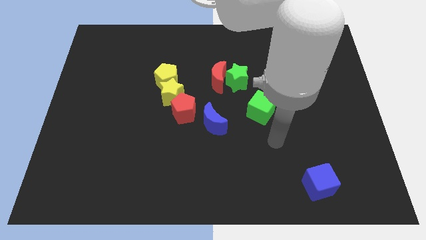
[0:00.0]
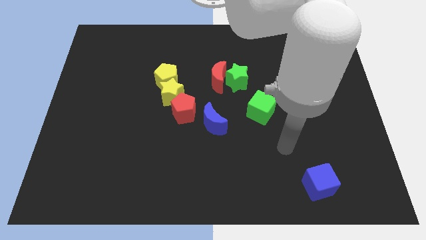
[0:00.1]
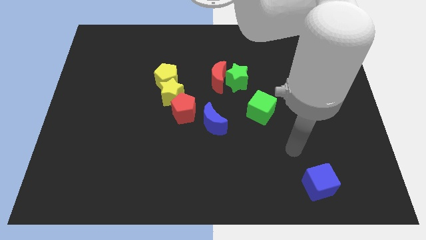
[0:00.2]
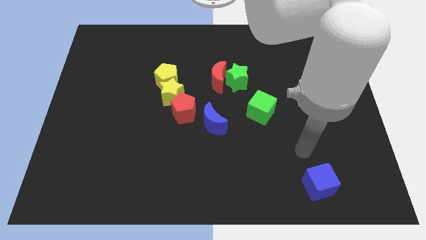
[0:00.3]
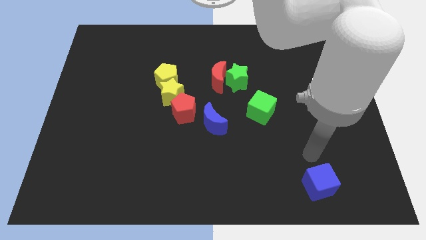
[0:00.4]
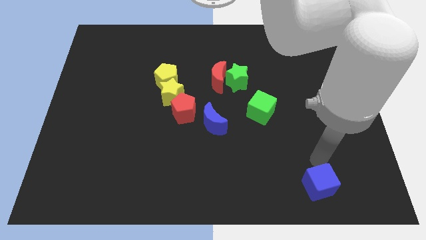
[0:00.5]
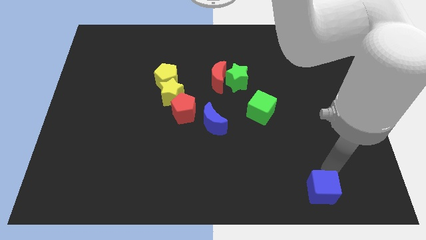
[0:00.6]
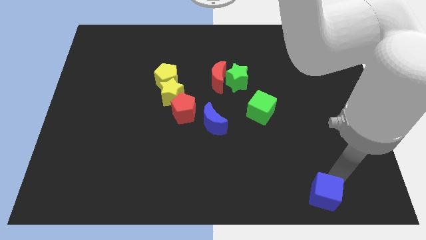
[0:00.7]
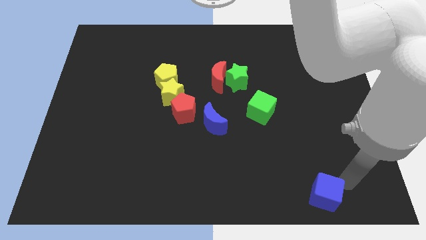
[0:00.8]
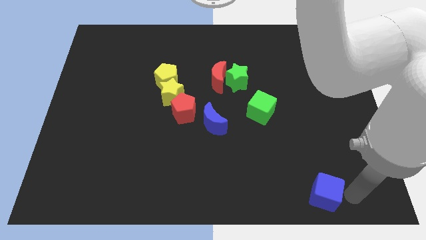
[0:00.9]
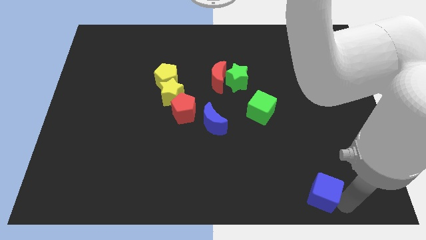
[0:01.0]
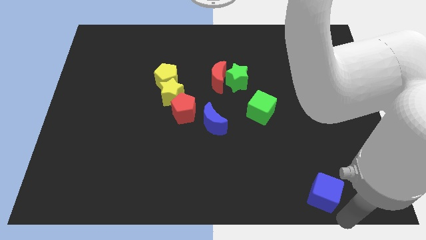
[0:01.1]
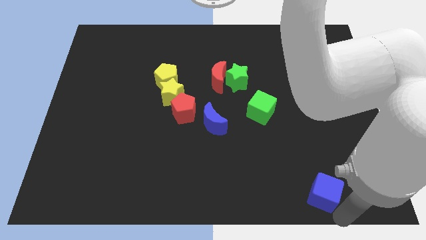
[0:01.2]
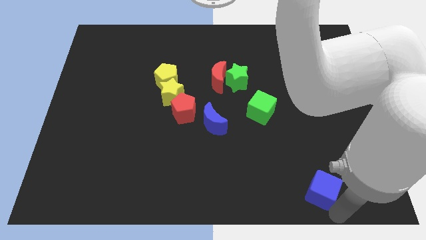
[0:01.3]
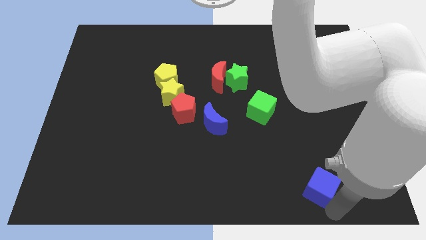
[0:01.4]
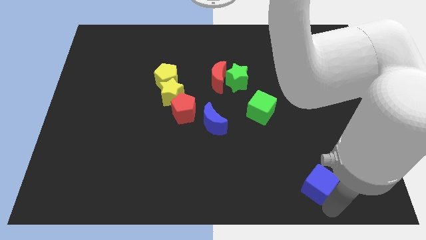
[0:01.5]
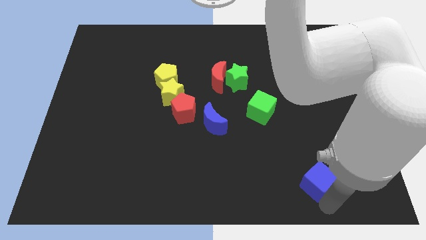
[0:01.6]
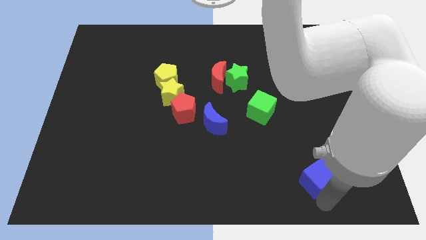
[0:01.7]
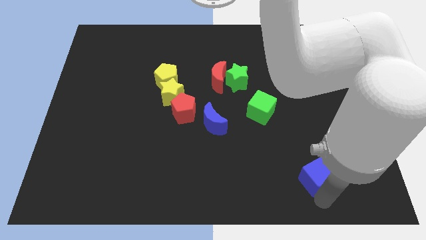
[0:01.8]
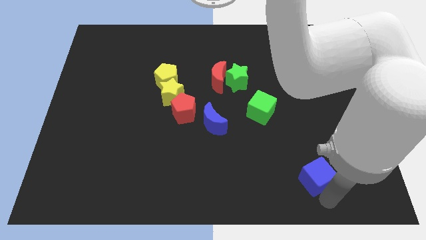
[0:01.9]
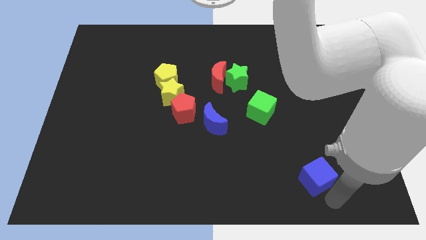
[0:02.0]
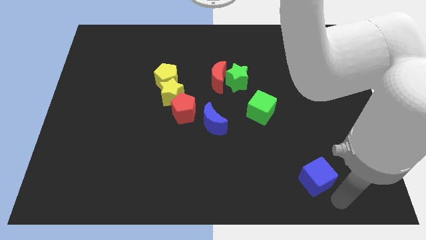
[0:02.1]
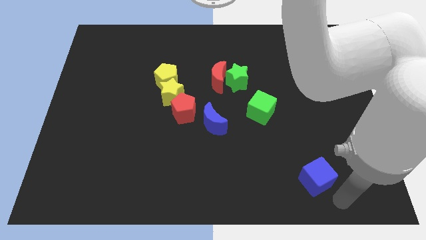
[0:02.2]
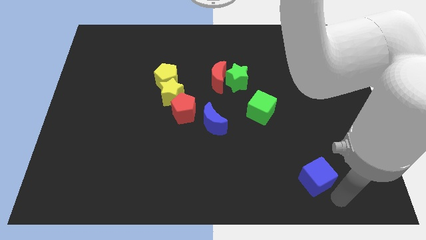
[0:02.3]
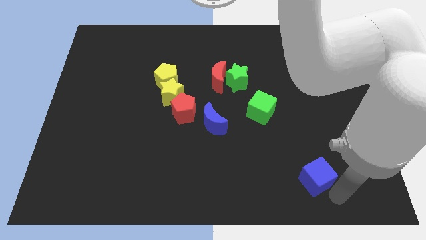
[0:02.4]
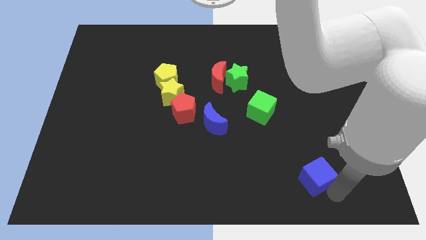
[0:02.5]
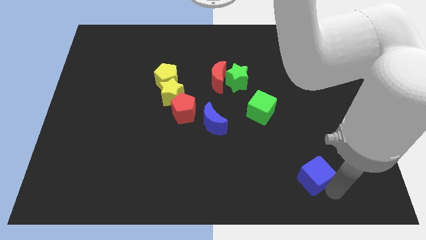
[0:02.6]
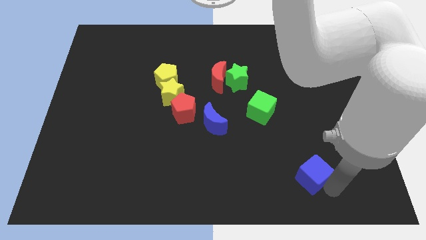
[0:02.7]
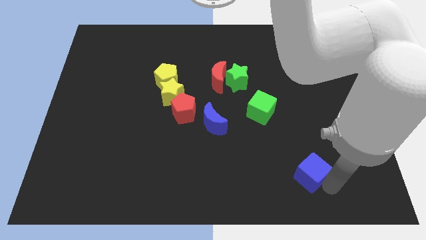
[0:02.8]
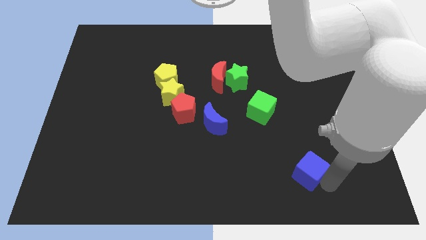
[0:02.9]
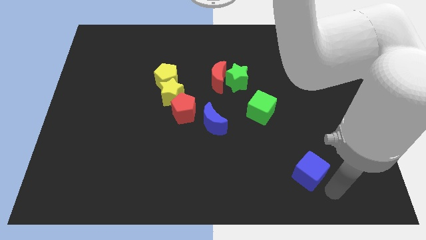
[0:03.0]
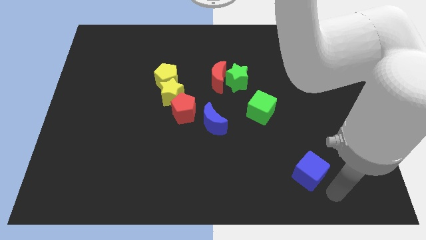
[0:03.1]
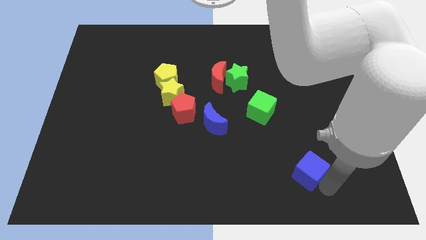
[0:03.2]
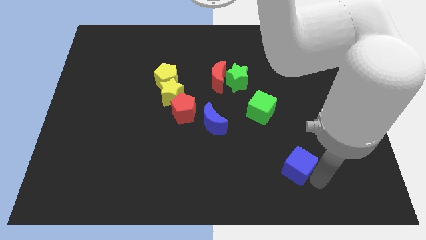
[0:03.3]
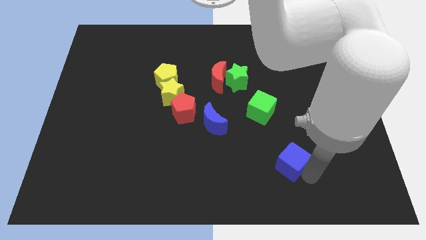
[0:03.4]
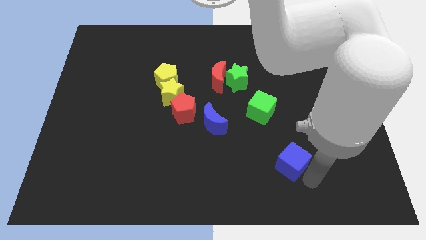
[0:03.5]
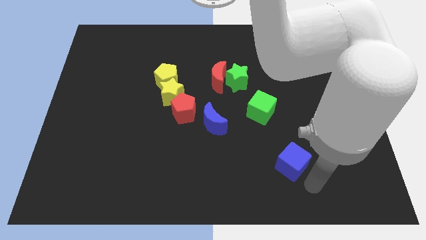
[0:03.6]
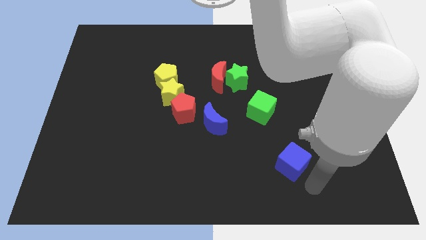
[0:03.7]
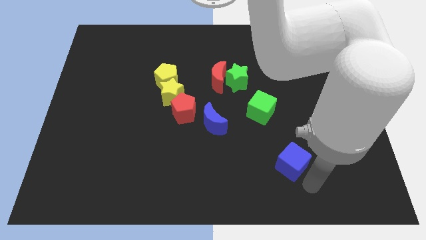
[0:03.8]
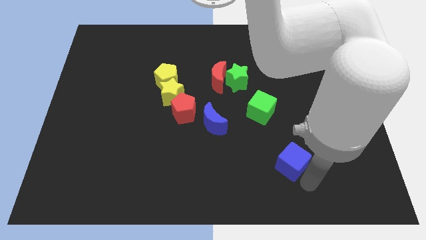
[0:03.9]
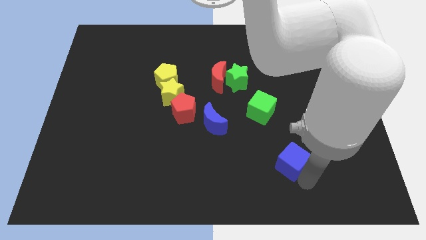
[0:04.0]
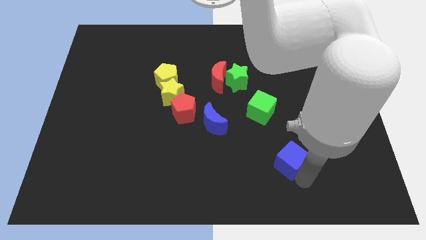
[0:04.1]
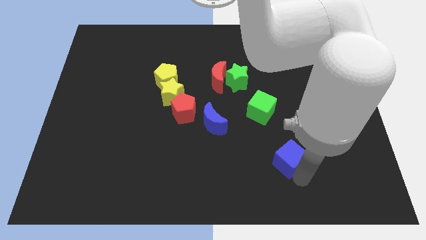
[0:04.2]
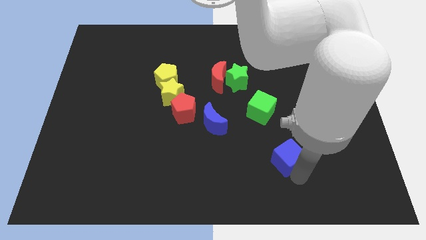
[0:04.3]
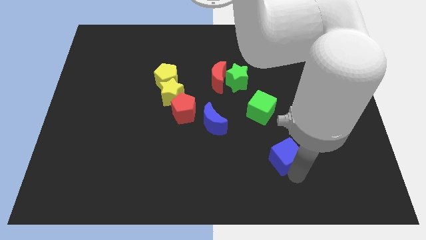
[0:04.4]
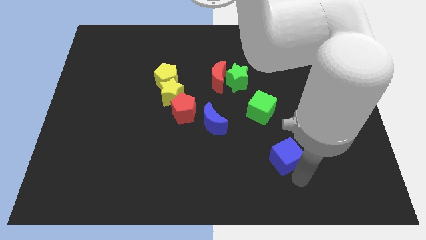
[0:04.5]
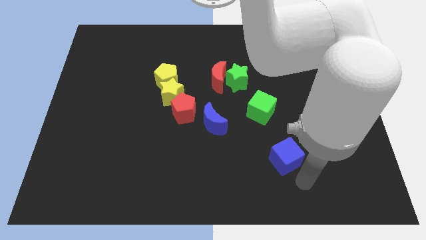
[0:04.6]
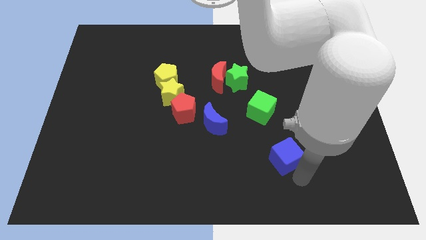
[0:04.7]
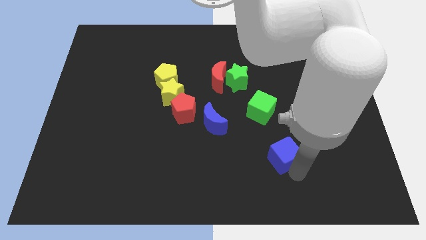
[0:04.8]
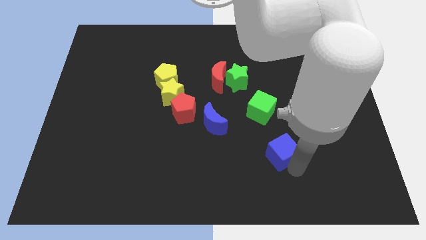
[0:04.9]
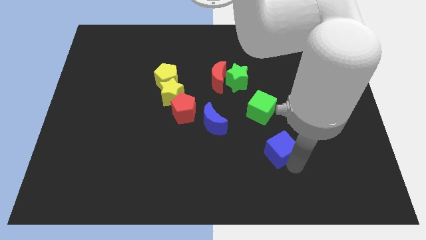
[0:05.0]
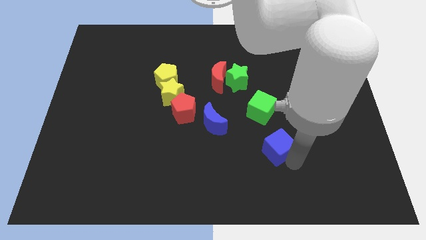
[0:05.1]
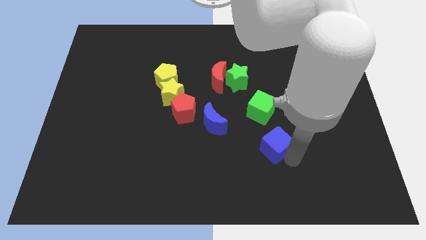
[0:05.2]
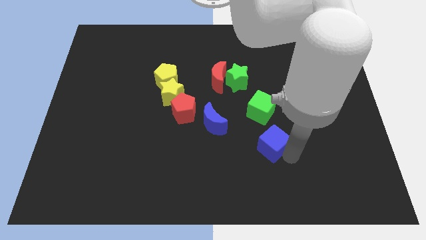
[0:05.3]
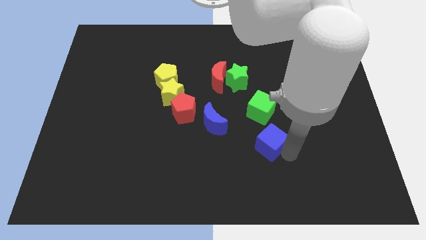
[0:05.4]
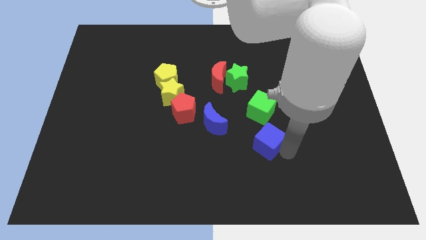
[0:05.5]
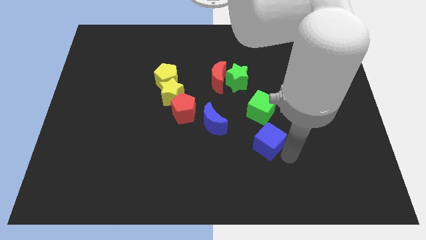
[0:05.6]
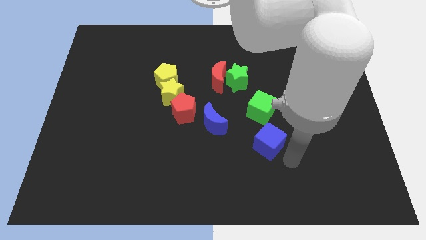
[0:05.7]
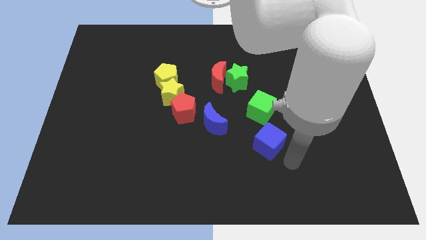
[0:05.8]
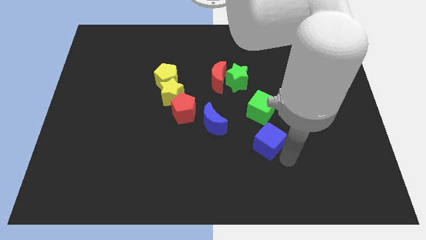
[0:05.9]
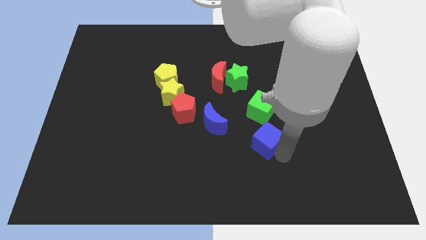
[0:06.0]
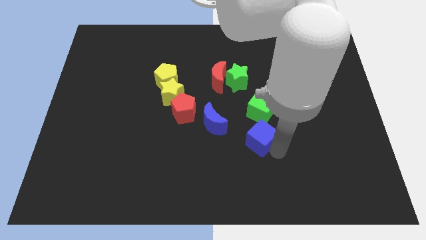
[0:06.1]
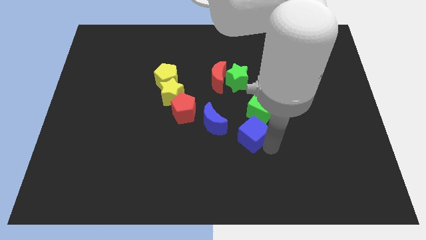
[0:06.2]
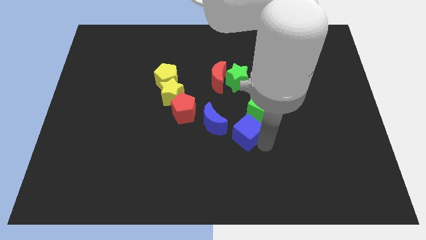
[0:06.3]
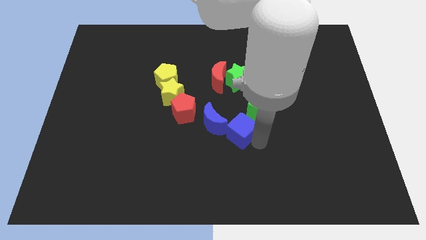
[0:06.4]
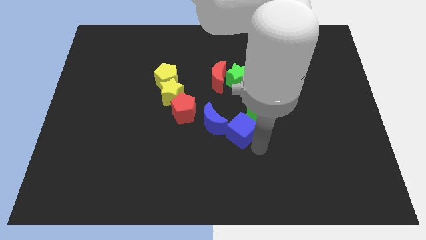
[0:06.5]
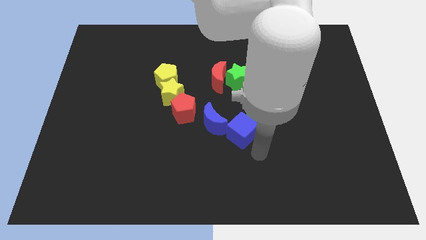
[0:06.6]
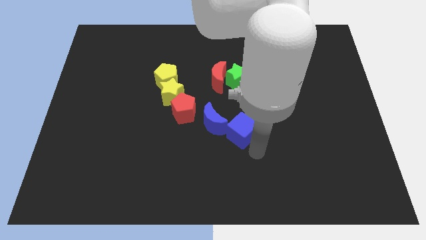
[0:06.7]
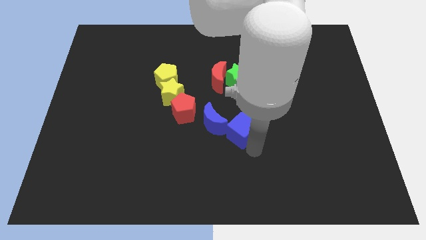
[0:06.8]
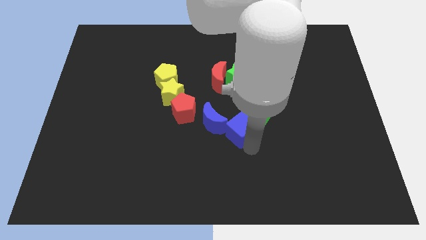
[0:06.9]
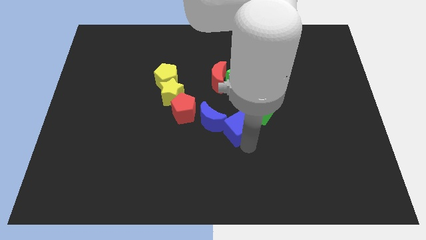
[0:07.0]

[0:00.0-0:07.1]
push the blue cube up and to the left diagonally

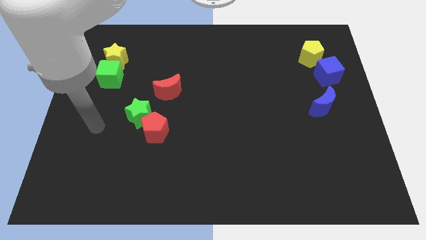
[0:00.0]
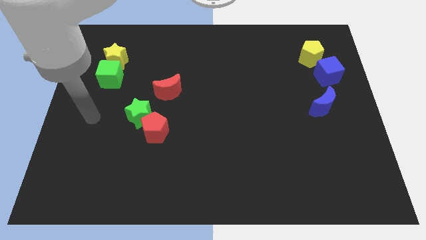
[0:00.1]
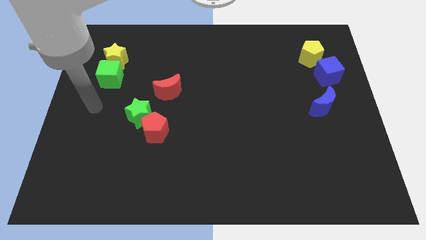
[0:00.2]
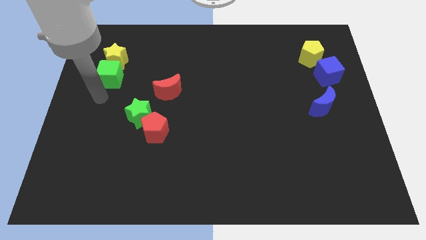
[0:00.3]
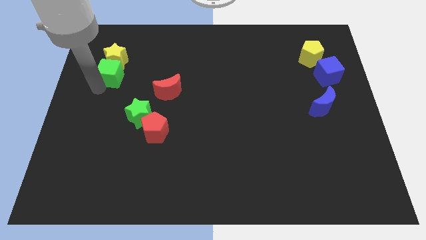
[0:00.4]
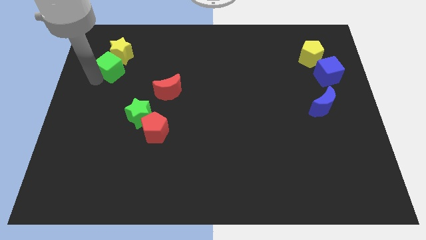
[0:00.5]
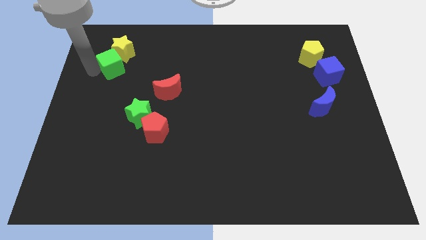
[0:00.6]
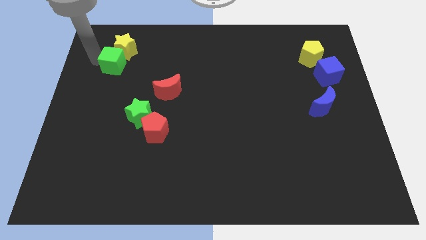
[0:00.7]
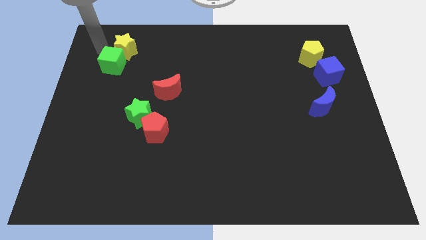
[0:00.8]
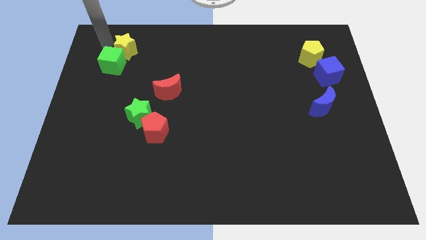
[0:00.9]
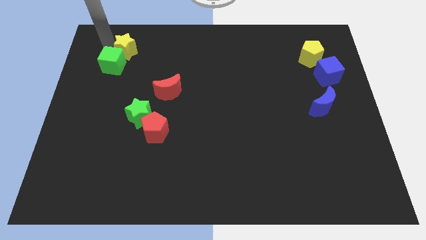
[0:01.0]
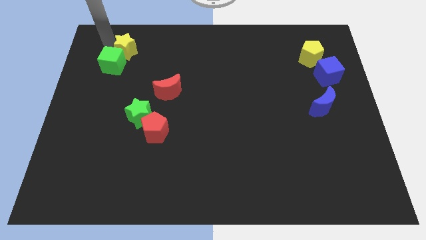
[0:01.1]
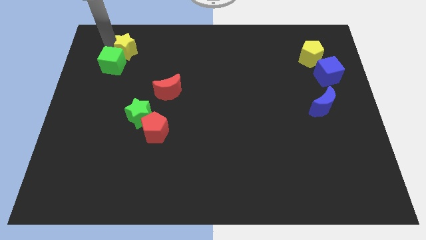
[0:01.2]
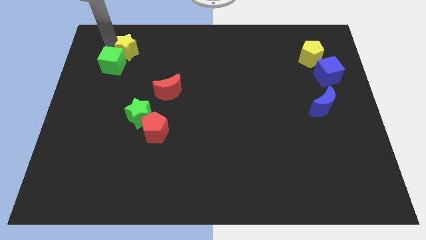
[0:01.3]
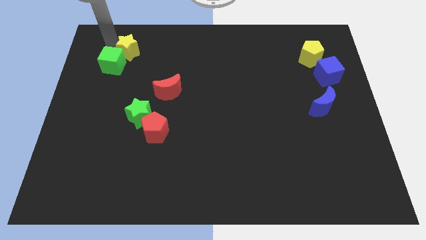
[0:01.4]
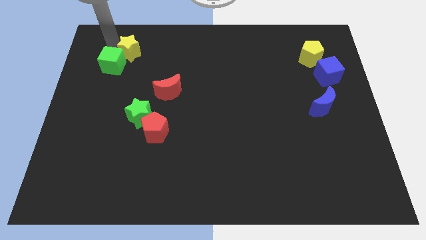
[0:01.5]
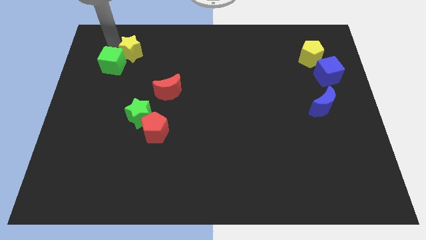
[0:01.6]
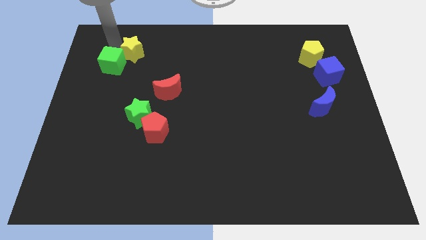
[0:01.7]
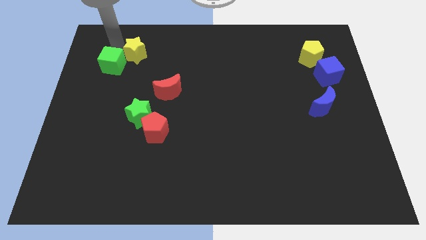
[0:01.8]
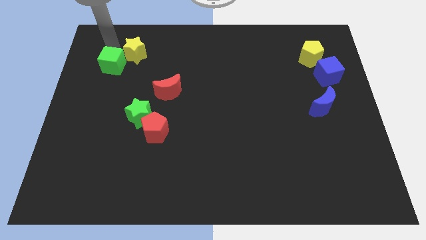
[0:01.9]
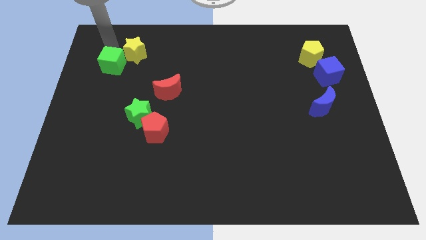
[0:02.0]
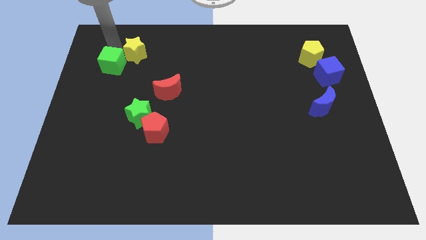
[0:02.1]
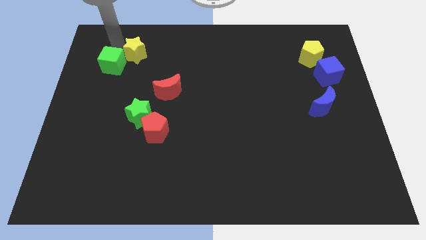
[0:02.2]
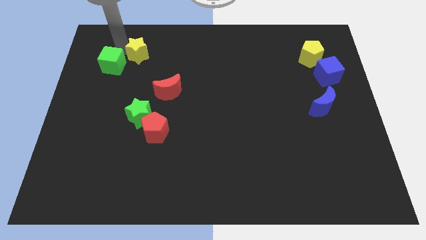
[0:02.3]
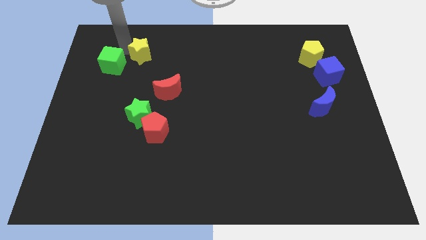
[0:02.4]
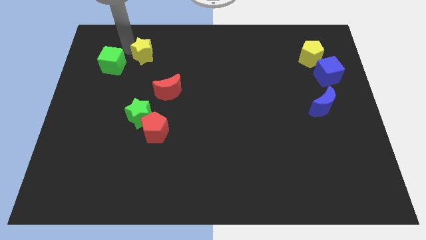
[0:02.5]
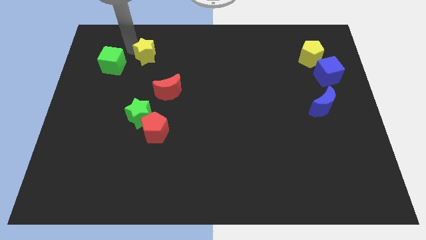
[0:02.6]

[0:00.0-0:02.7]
push the yellow star a little bit right
